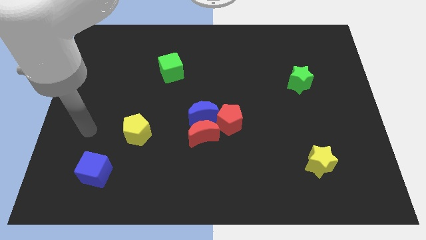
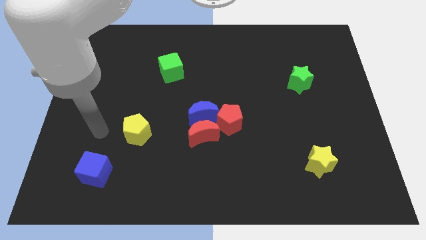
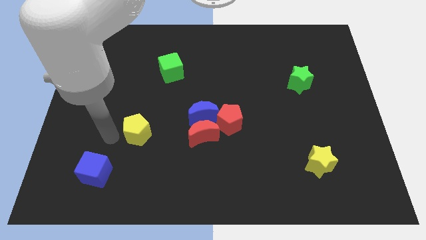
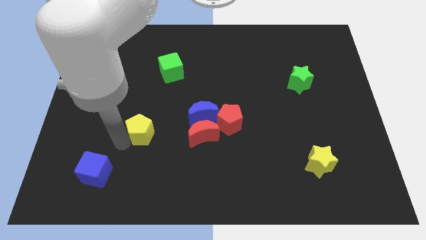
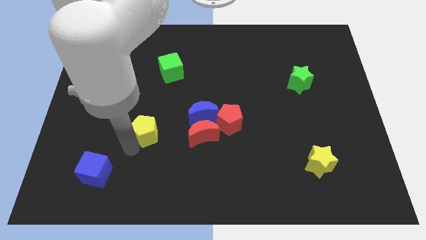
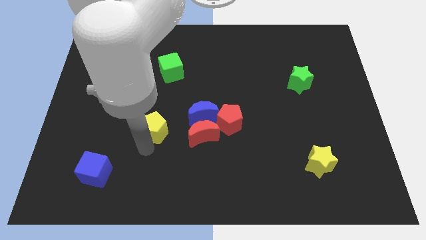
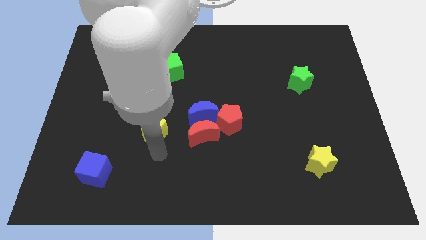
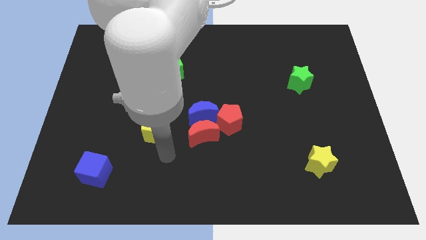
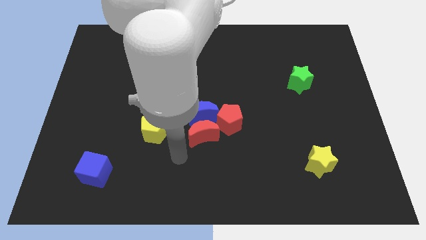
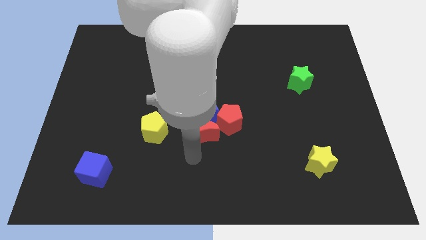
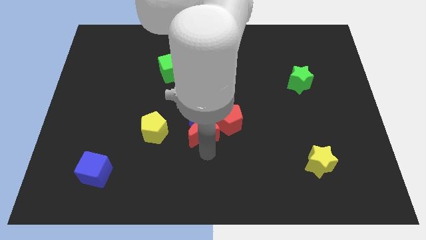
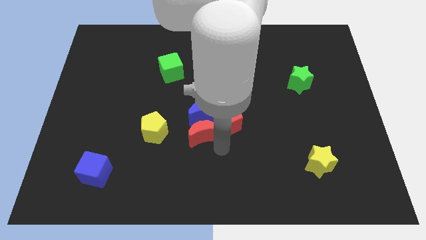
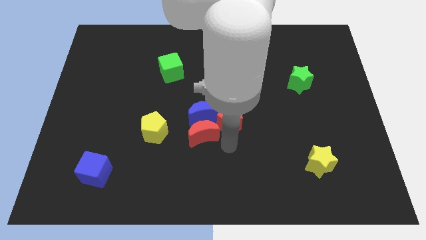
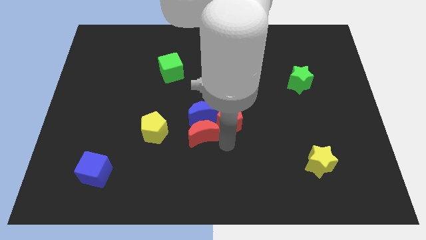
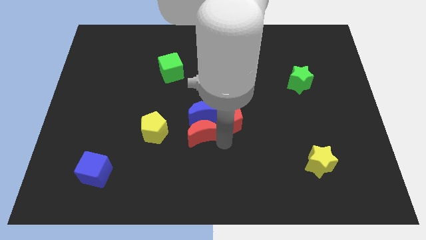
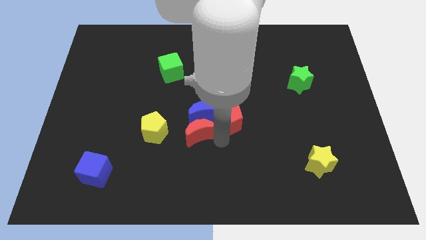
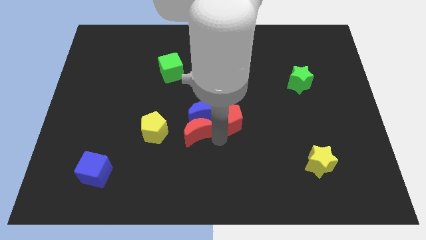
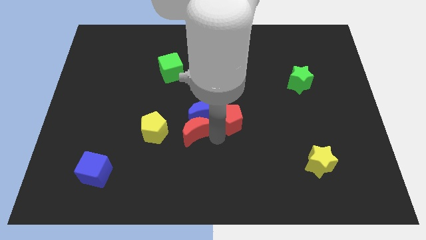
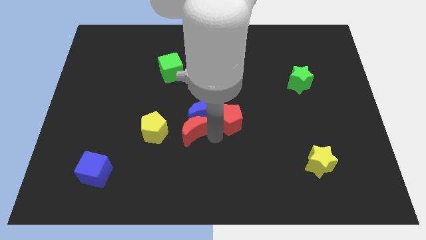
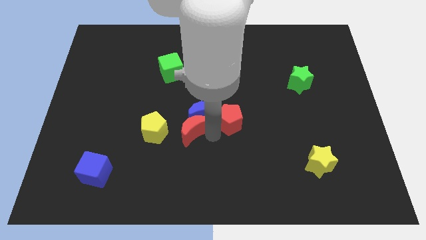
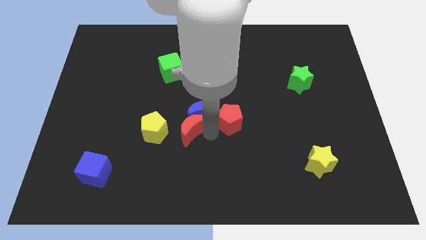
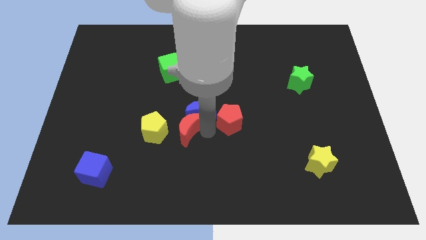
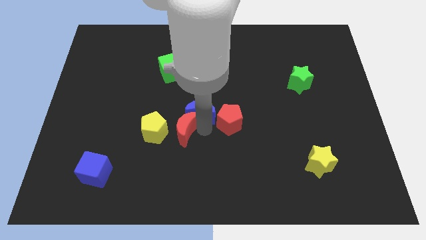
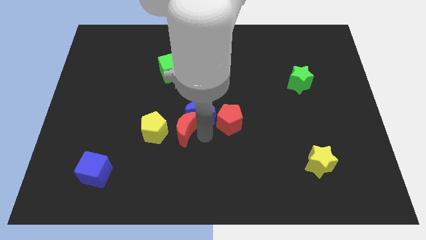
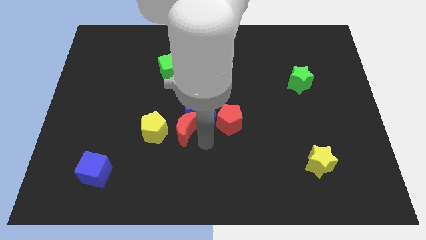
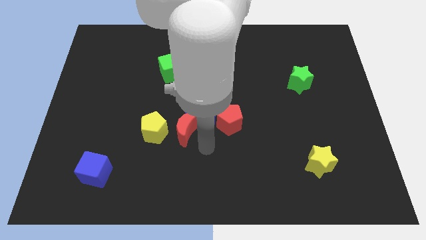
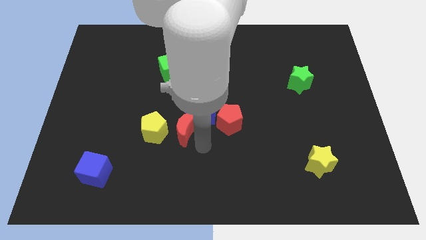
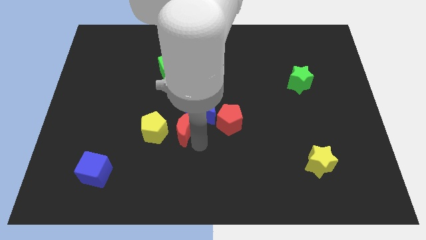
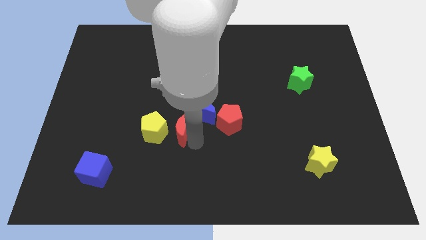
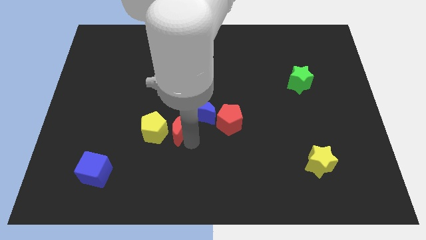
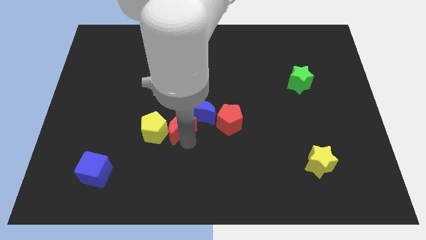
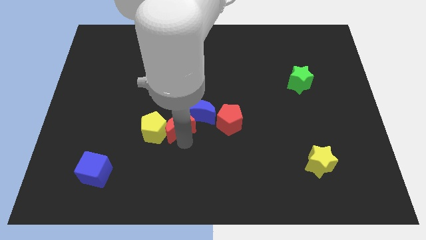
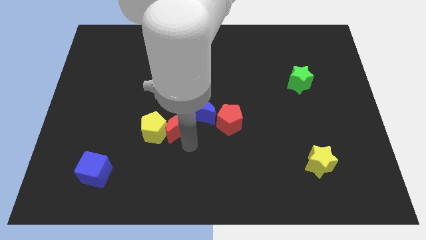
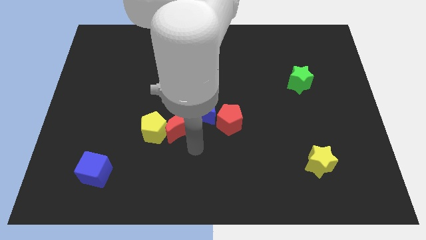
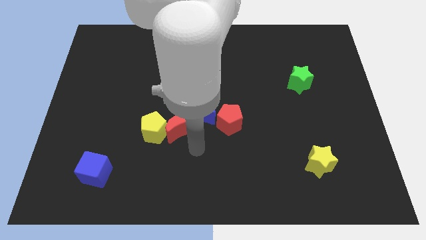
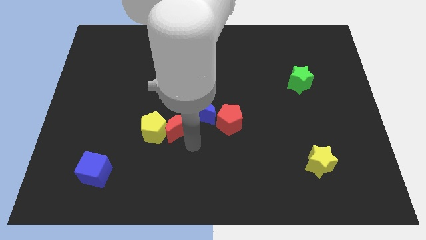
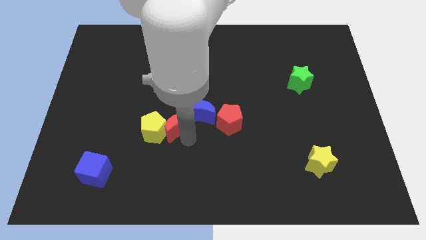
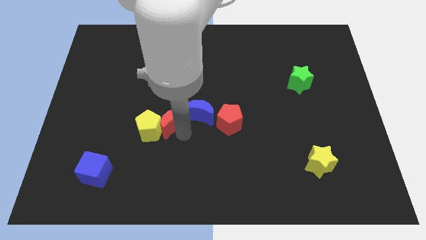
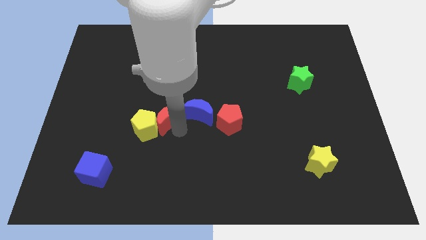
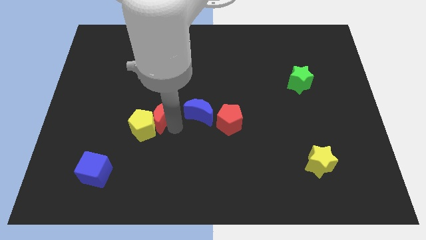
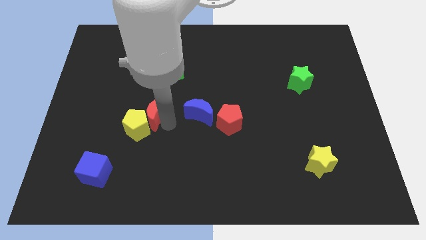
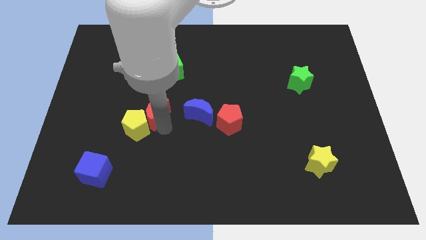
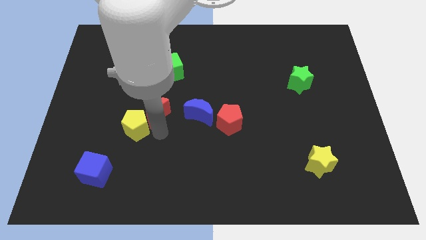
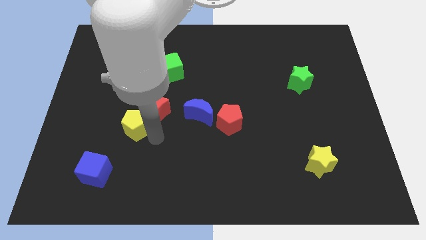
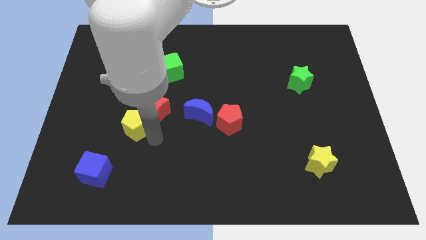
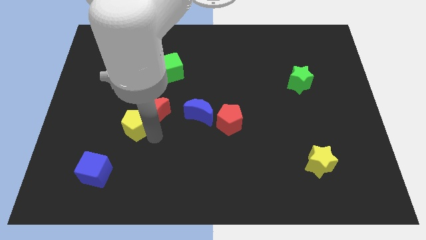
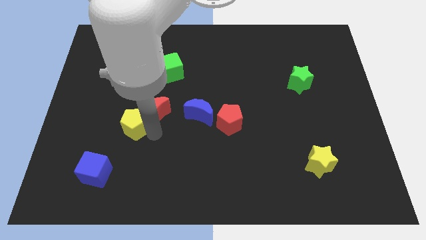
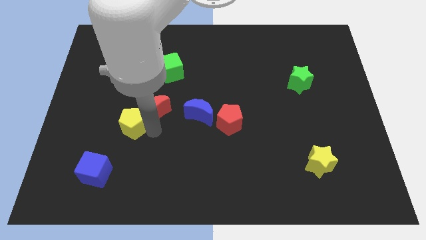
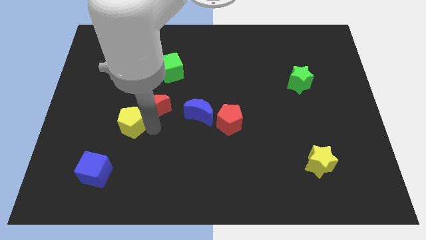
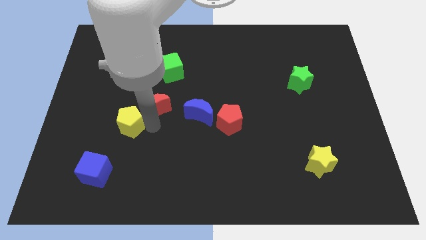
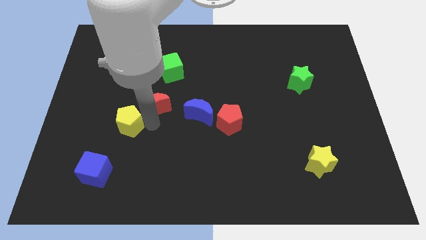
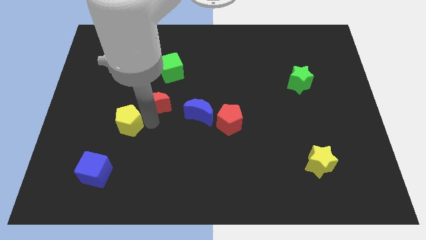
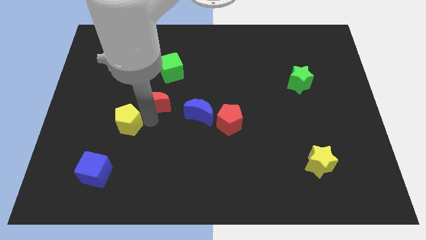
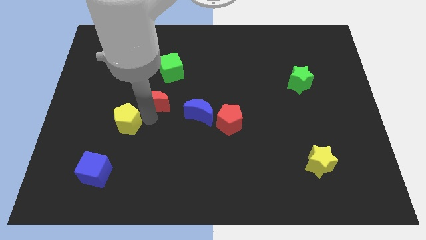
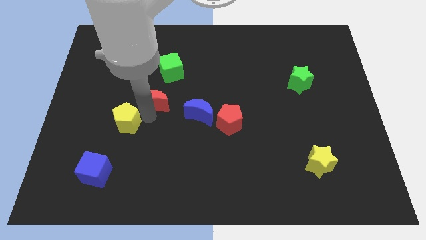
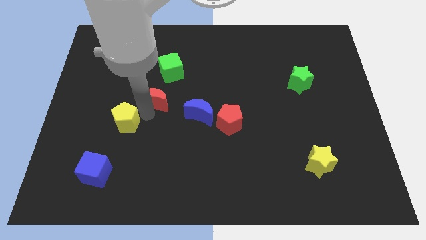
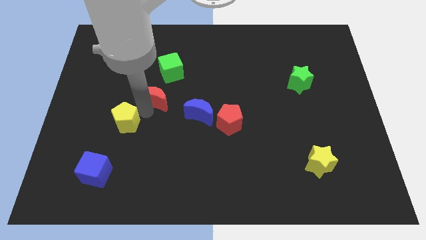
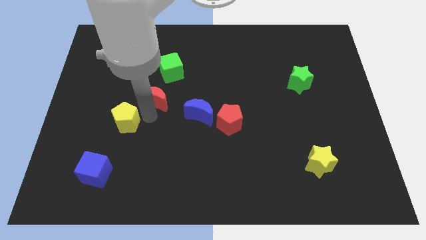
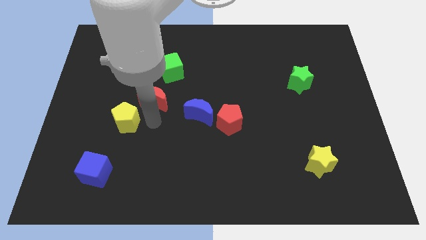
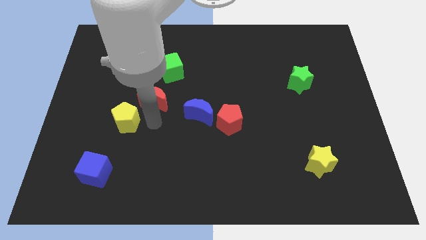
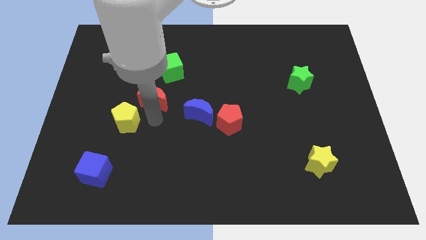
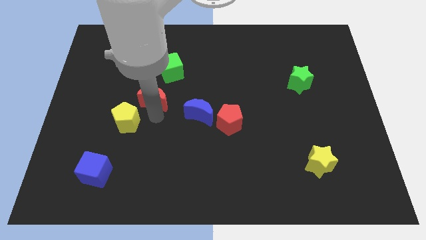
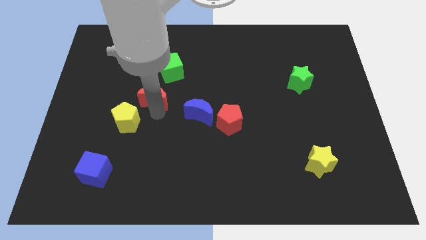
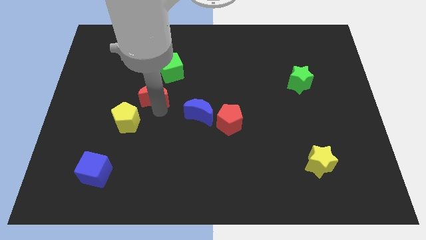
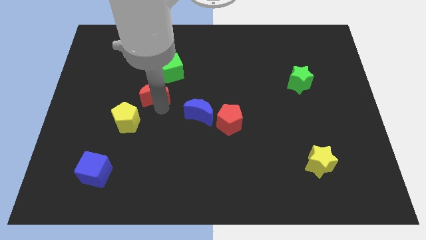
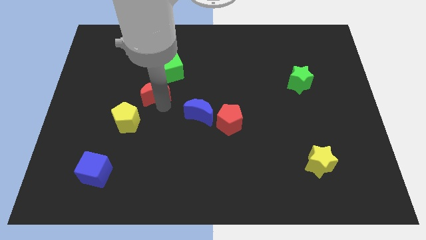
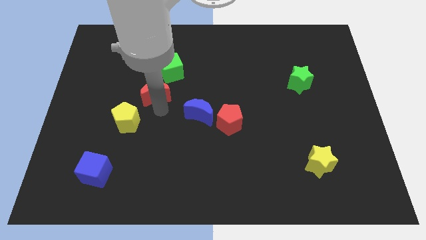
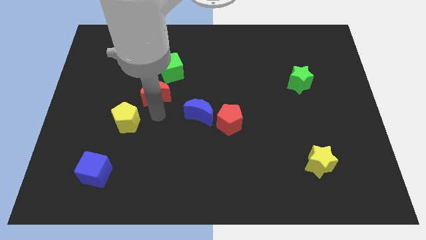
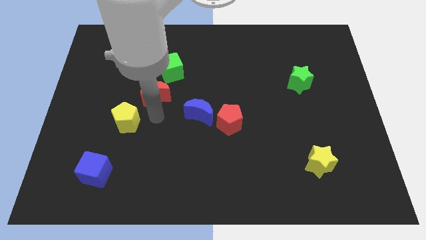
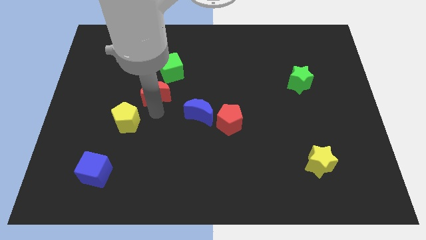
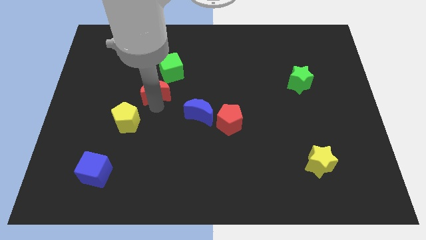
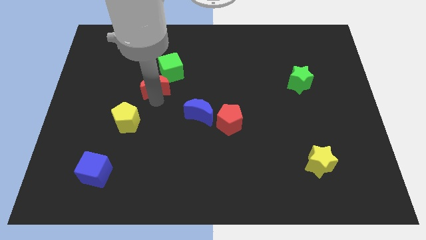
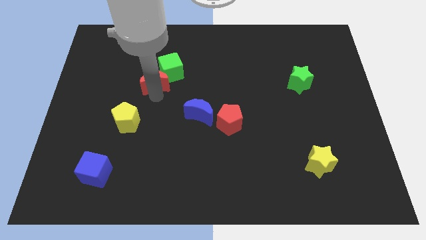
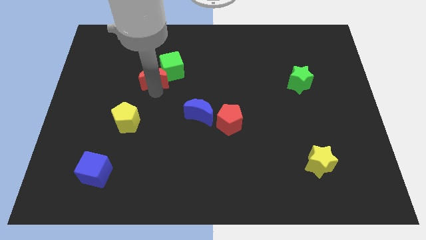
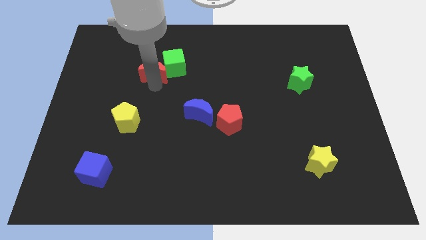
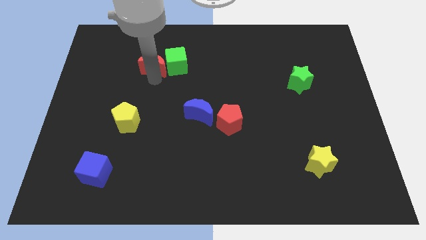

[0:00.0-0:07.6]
move the red moon diagonally up and to the left of the green cube
